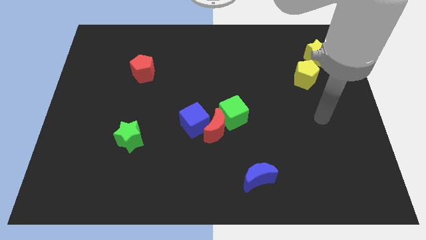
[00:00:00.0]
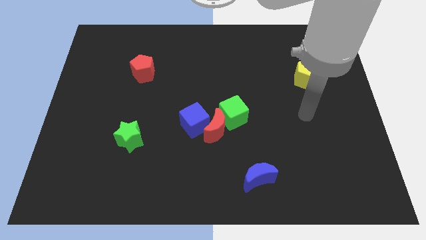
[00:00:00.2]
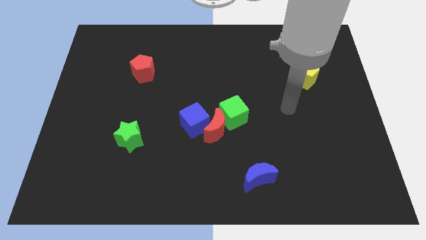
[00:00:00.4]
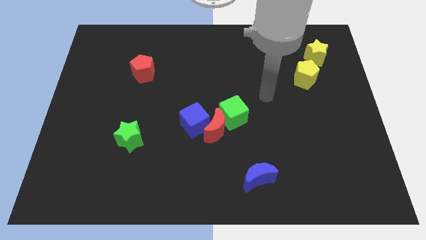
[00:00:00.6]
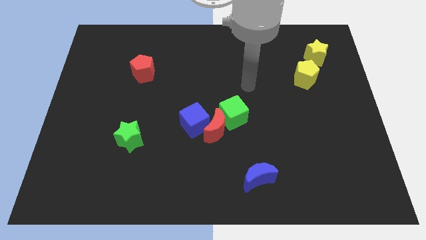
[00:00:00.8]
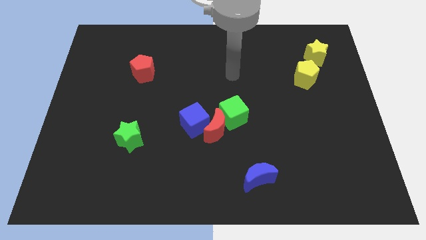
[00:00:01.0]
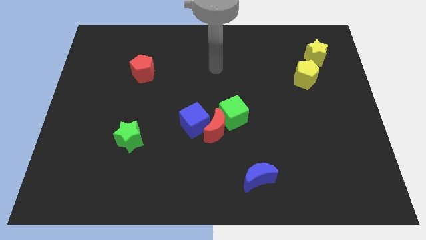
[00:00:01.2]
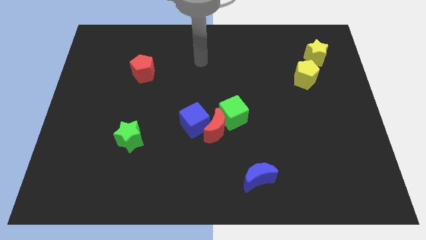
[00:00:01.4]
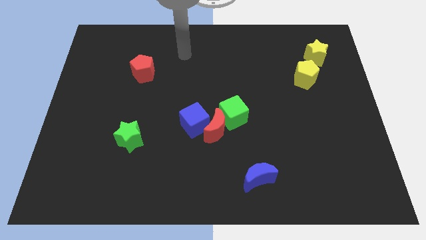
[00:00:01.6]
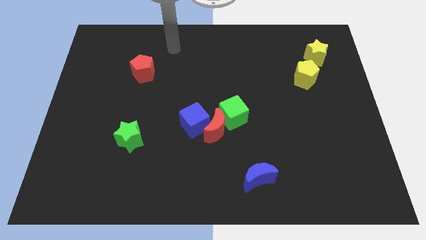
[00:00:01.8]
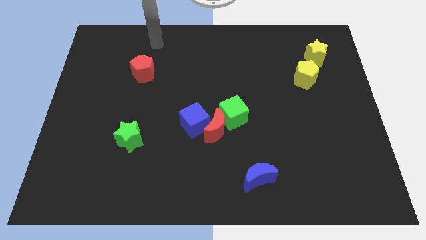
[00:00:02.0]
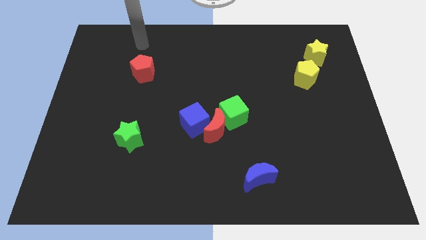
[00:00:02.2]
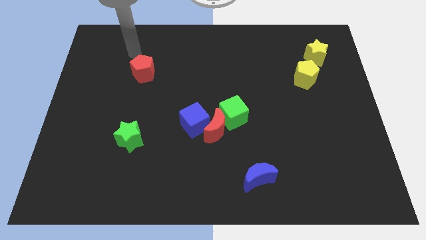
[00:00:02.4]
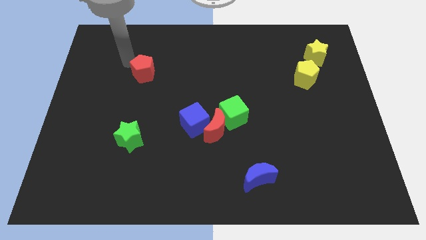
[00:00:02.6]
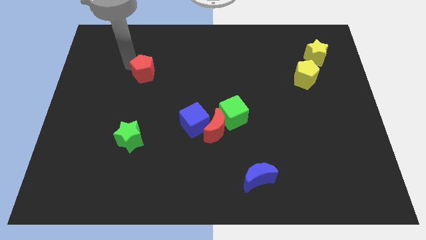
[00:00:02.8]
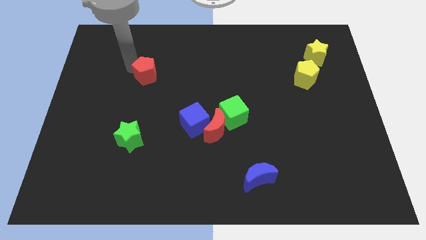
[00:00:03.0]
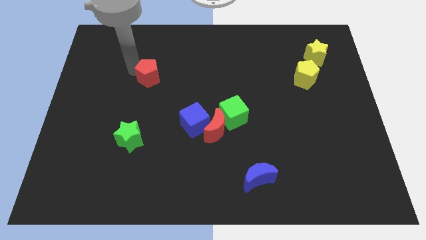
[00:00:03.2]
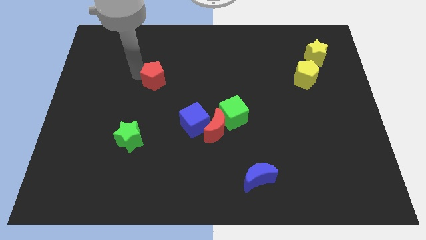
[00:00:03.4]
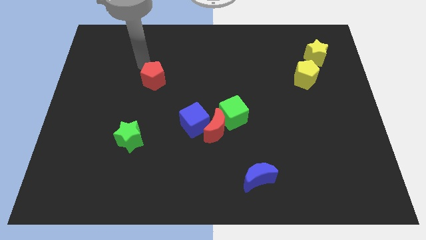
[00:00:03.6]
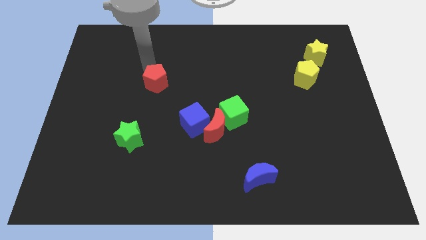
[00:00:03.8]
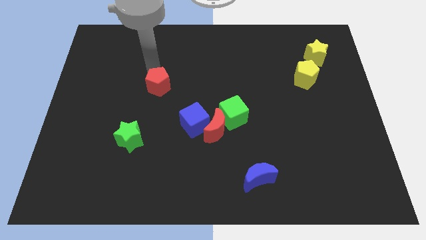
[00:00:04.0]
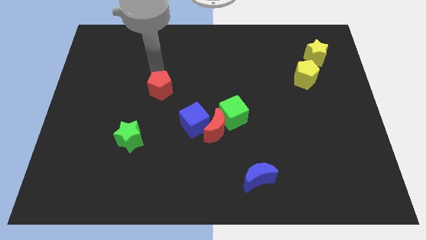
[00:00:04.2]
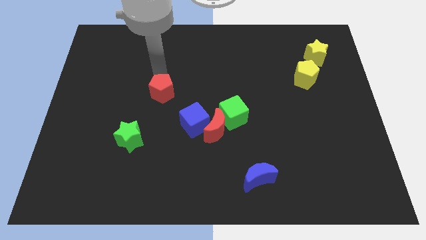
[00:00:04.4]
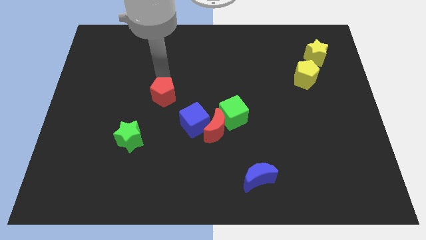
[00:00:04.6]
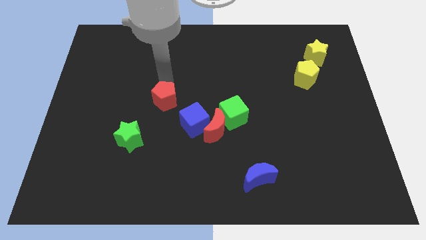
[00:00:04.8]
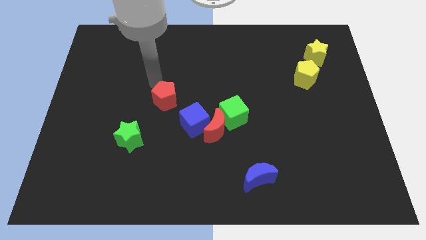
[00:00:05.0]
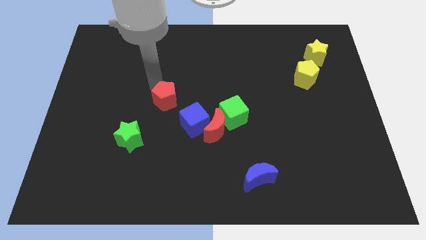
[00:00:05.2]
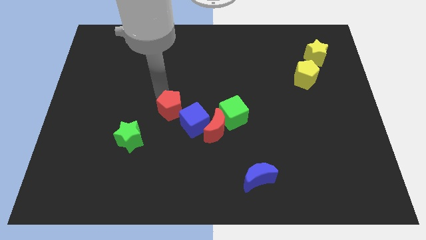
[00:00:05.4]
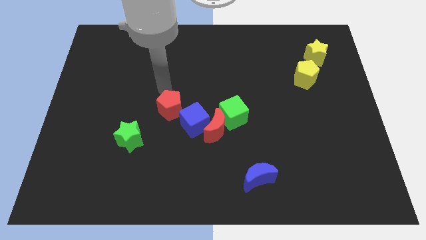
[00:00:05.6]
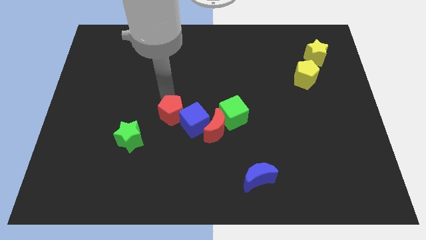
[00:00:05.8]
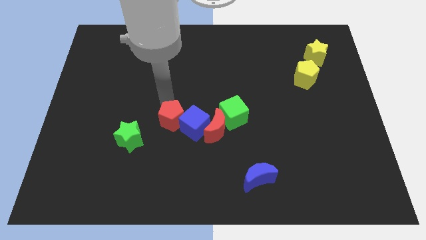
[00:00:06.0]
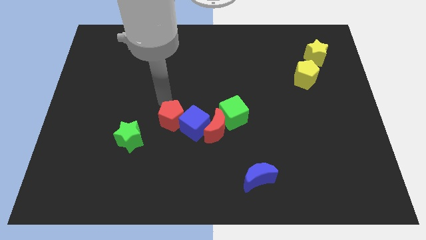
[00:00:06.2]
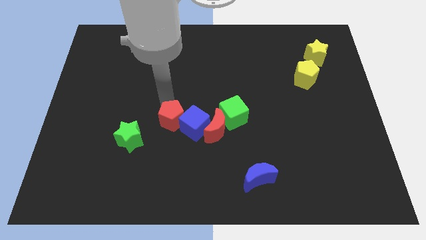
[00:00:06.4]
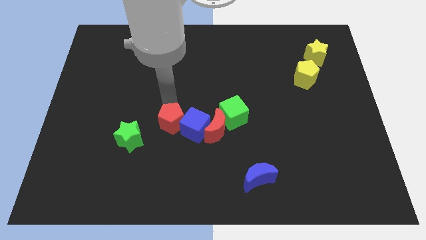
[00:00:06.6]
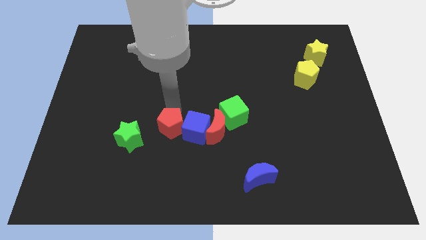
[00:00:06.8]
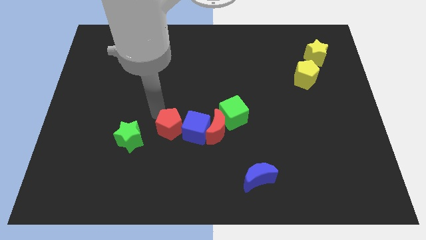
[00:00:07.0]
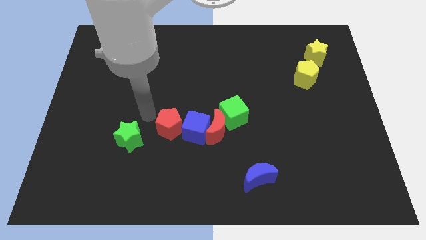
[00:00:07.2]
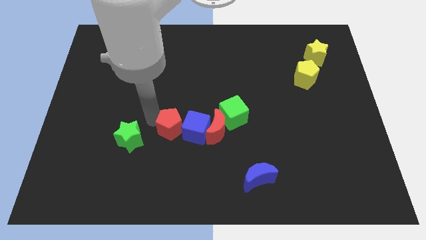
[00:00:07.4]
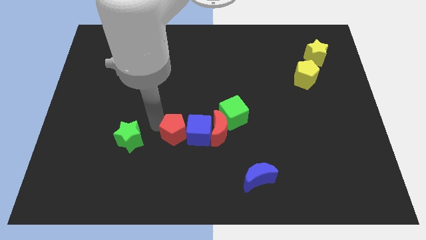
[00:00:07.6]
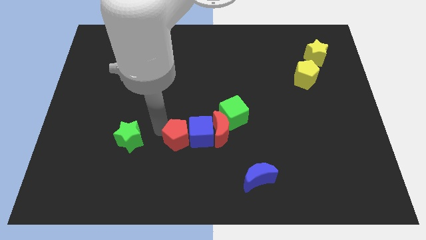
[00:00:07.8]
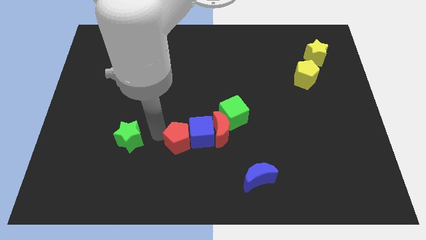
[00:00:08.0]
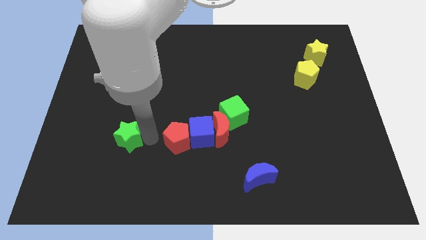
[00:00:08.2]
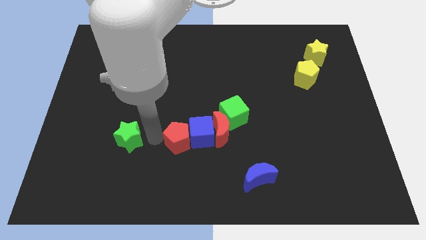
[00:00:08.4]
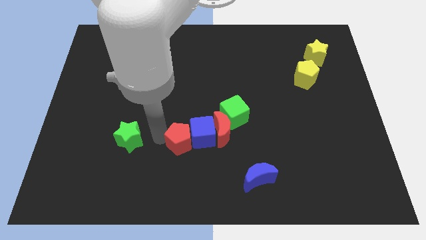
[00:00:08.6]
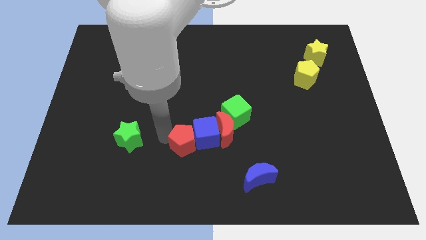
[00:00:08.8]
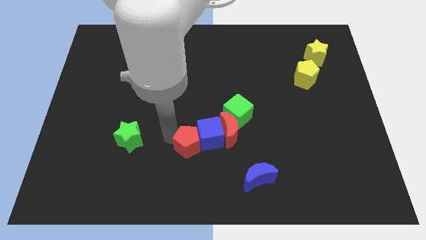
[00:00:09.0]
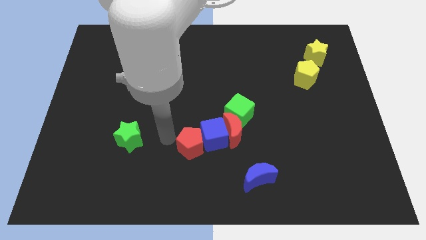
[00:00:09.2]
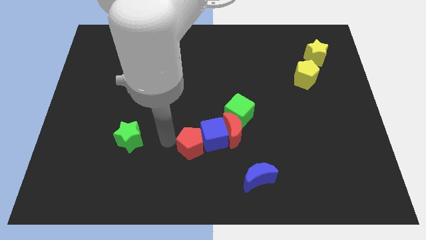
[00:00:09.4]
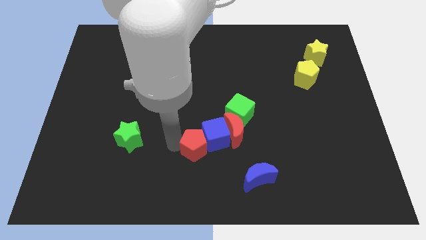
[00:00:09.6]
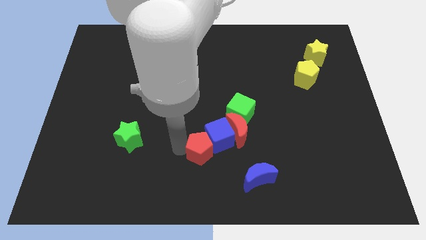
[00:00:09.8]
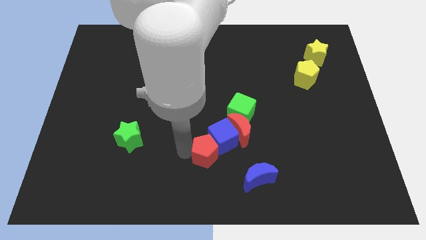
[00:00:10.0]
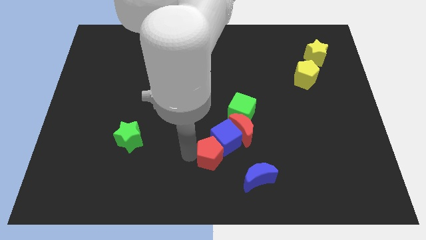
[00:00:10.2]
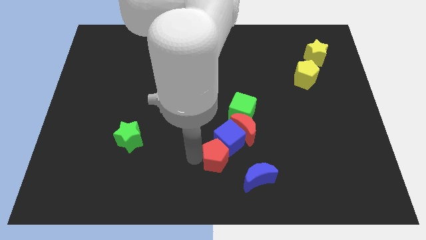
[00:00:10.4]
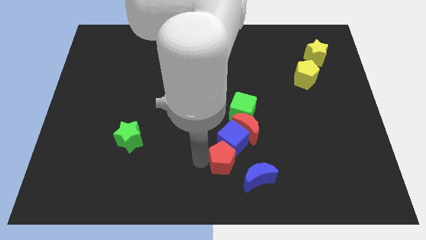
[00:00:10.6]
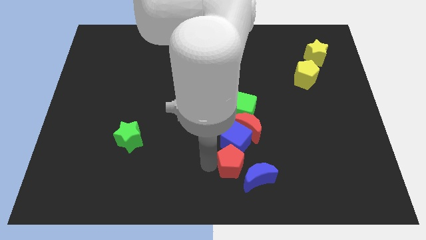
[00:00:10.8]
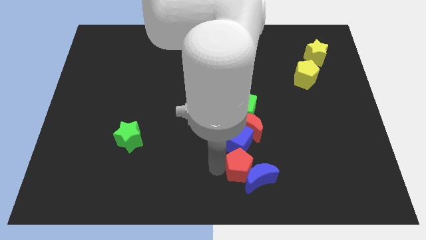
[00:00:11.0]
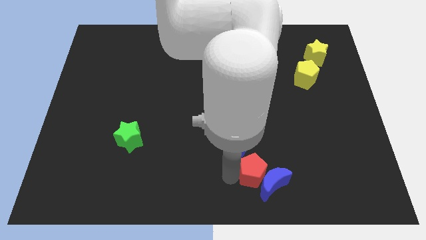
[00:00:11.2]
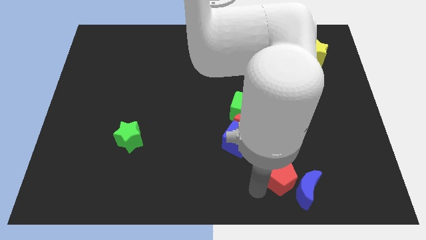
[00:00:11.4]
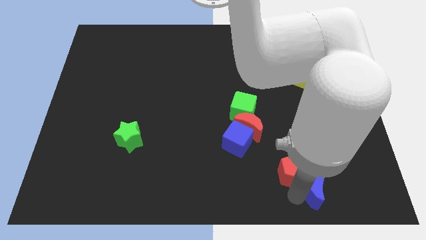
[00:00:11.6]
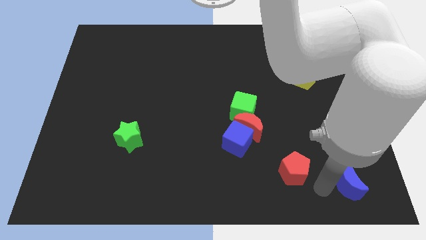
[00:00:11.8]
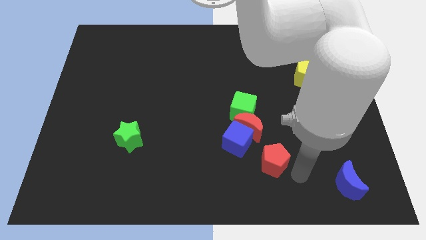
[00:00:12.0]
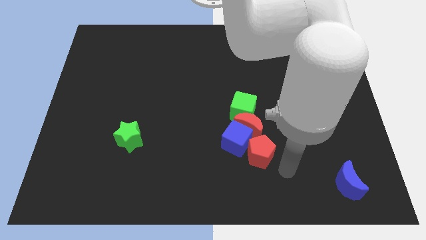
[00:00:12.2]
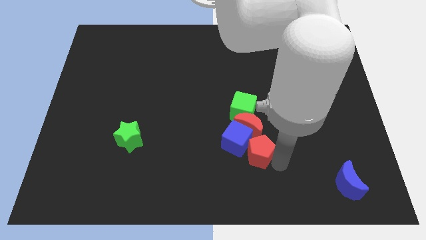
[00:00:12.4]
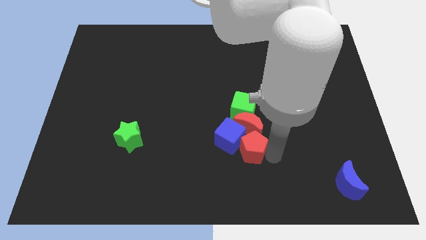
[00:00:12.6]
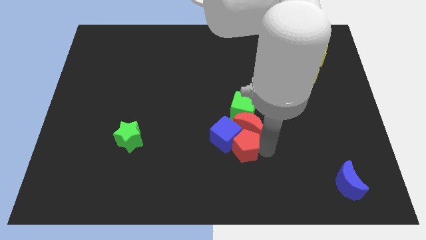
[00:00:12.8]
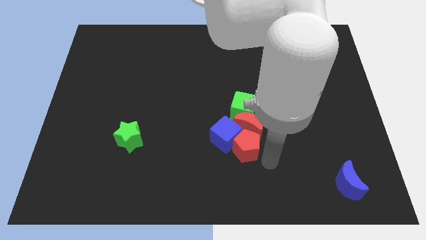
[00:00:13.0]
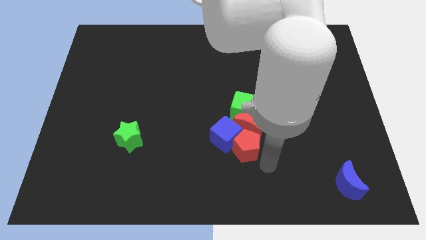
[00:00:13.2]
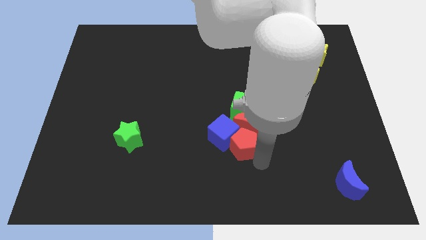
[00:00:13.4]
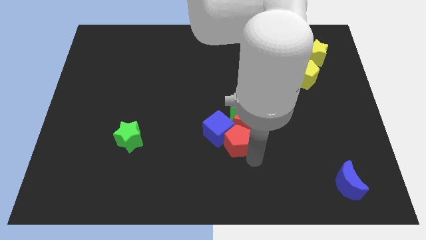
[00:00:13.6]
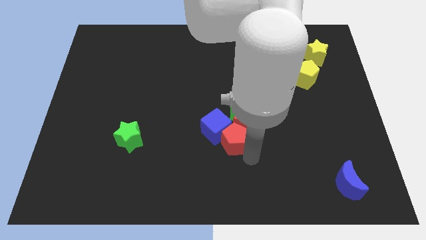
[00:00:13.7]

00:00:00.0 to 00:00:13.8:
push the red pentagon to the bottom left side of the green cube

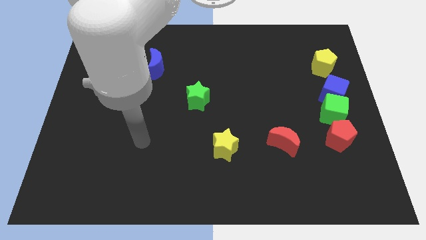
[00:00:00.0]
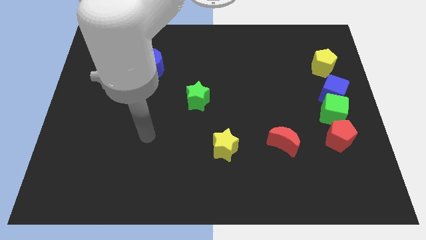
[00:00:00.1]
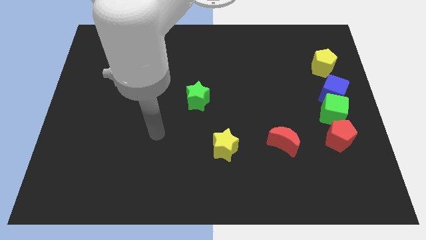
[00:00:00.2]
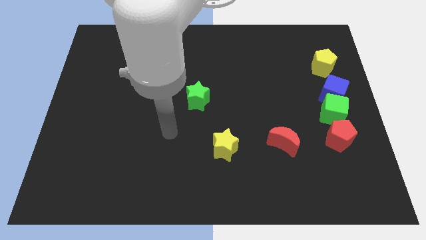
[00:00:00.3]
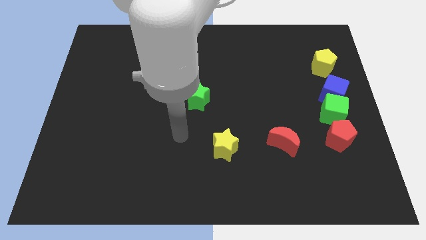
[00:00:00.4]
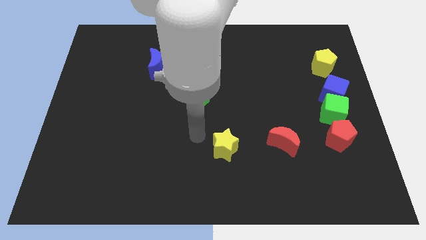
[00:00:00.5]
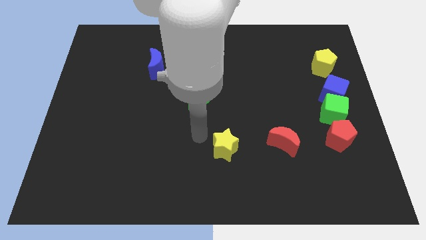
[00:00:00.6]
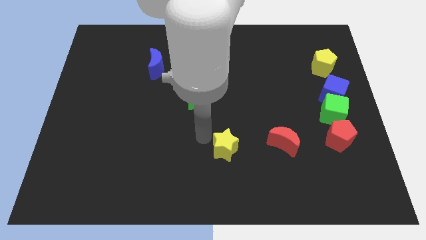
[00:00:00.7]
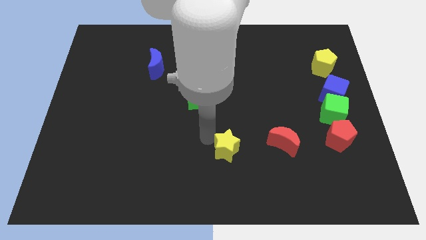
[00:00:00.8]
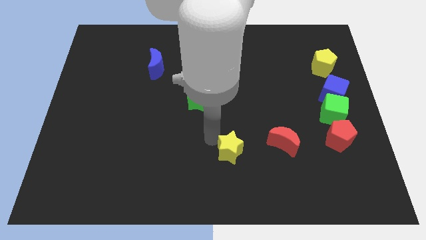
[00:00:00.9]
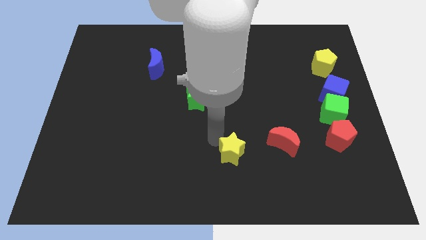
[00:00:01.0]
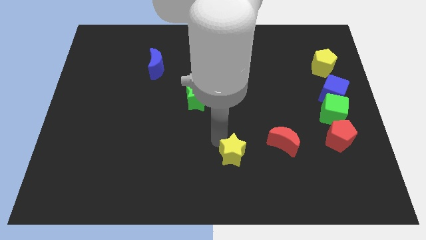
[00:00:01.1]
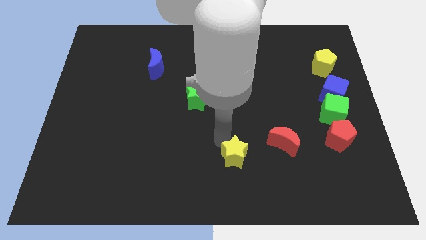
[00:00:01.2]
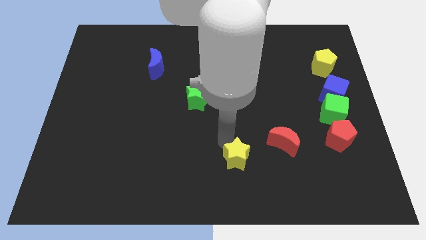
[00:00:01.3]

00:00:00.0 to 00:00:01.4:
move the yellow star diagonally down and to the left of the red moon
